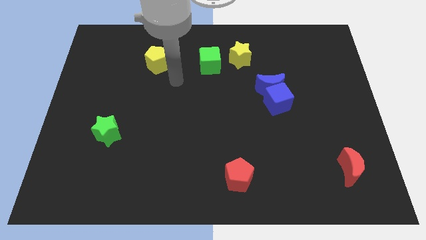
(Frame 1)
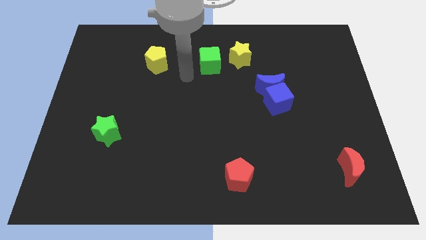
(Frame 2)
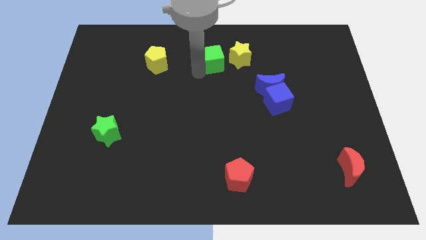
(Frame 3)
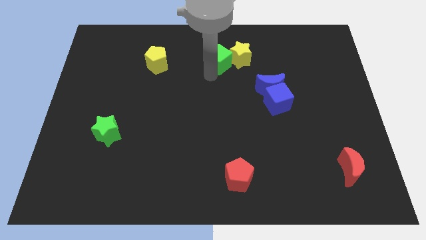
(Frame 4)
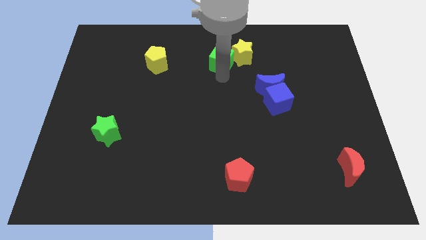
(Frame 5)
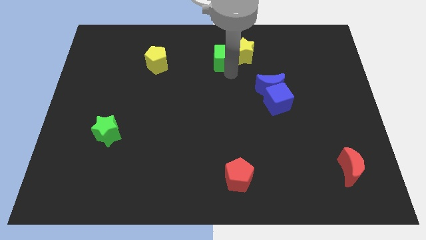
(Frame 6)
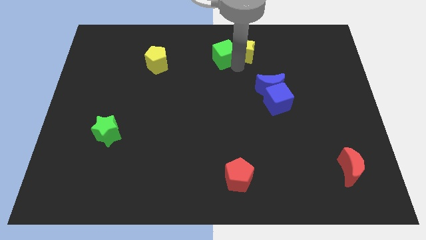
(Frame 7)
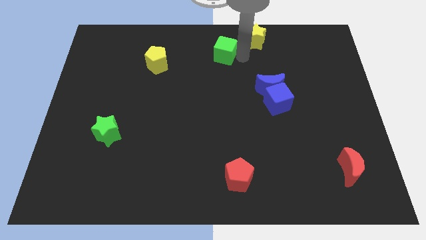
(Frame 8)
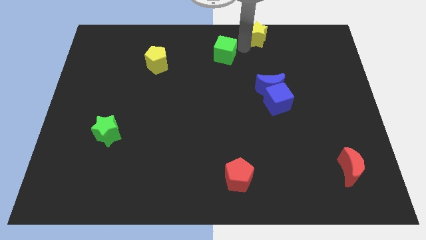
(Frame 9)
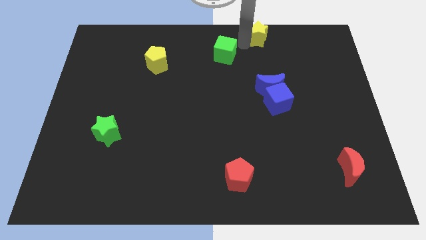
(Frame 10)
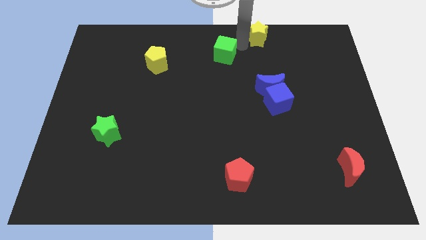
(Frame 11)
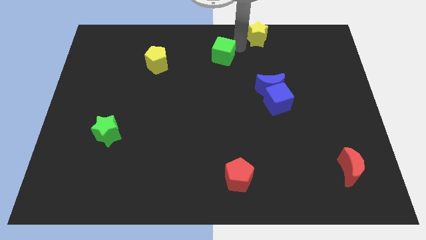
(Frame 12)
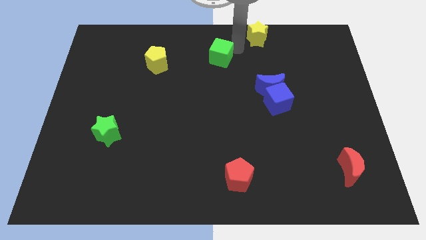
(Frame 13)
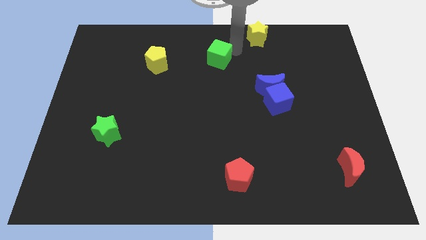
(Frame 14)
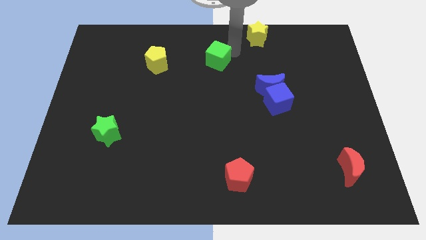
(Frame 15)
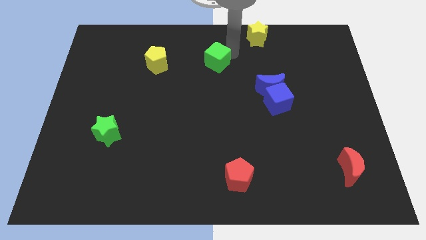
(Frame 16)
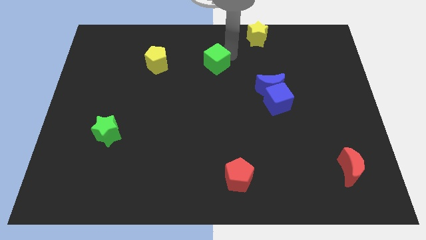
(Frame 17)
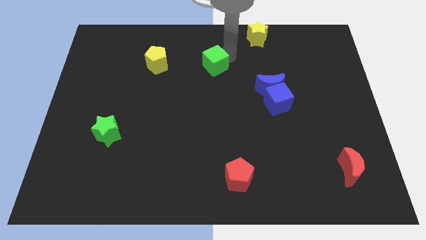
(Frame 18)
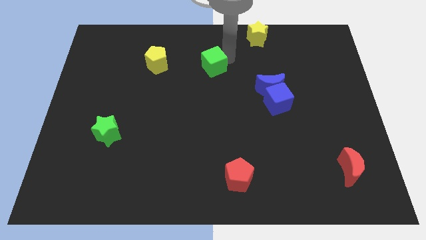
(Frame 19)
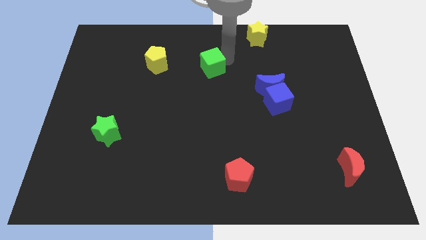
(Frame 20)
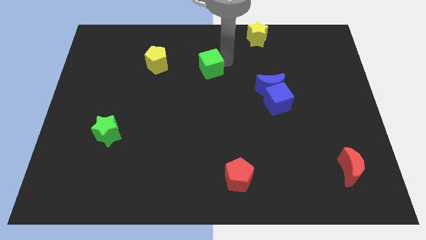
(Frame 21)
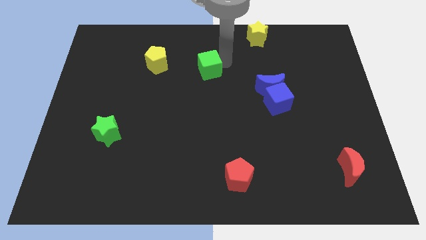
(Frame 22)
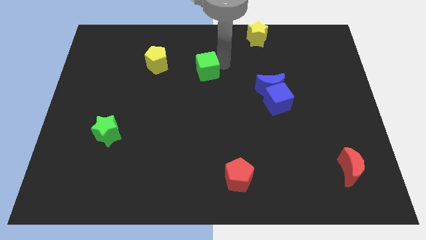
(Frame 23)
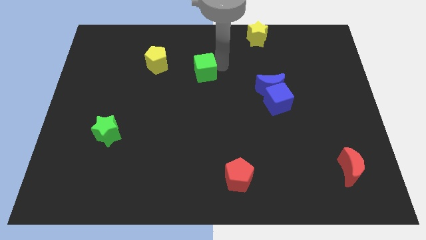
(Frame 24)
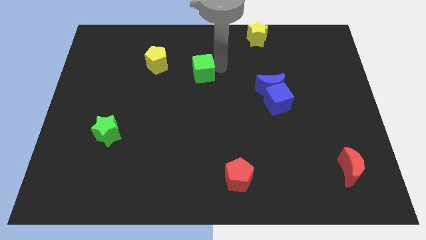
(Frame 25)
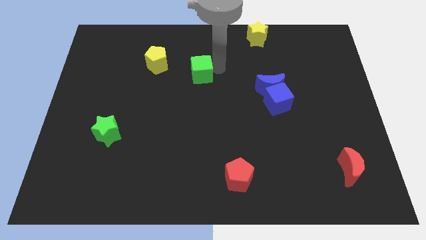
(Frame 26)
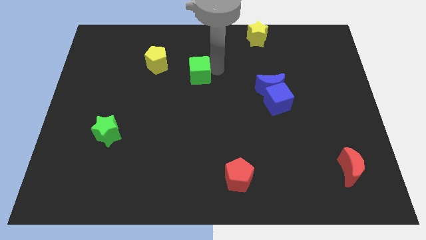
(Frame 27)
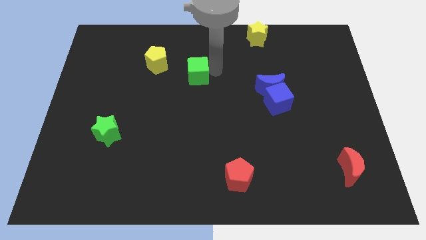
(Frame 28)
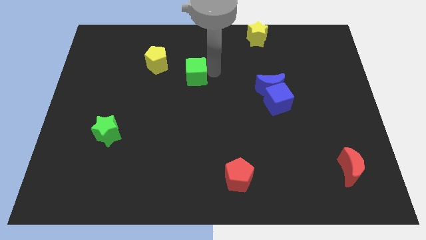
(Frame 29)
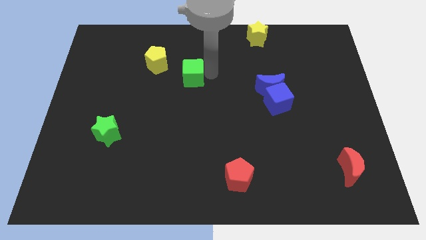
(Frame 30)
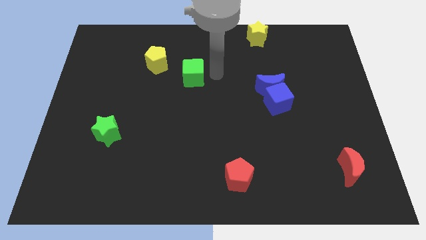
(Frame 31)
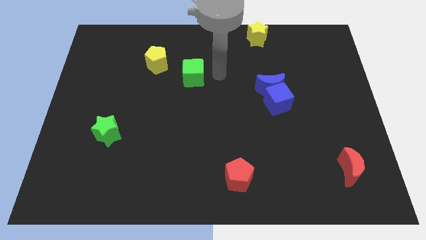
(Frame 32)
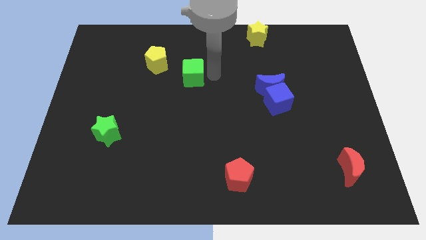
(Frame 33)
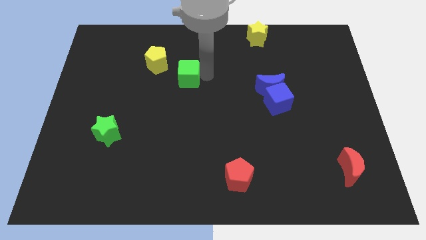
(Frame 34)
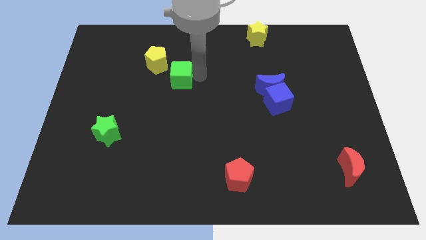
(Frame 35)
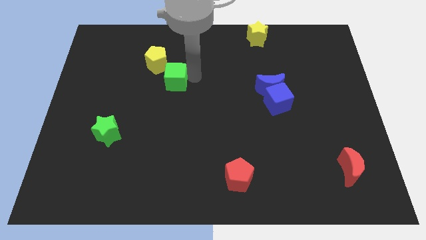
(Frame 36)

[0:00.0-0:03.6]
move the green cube to the left somewhat

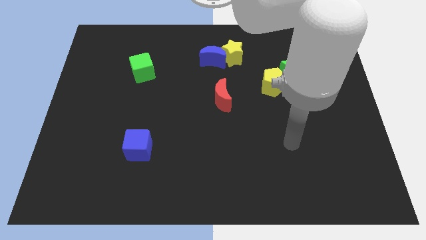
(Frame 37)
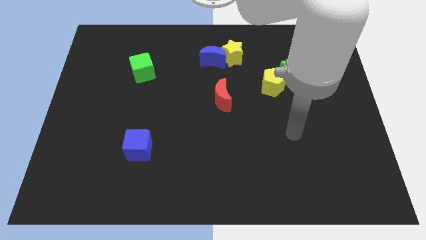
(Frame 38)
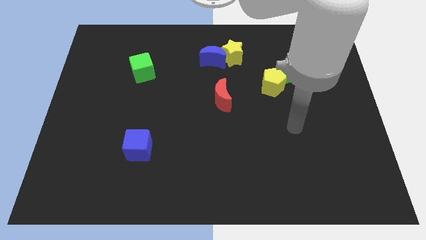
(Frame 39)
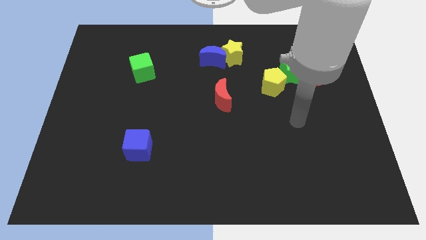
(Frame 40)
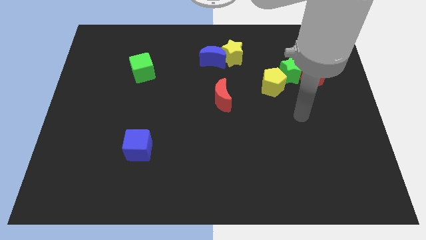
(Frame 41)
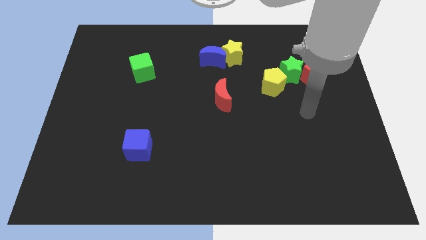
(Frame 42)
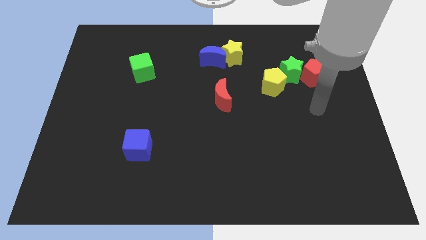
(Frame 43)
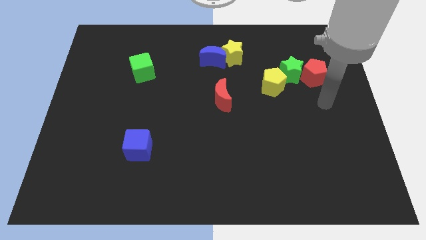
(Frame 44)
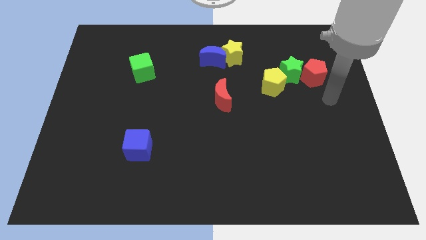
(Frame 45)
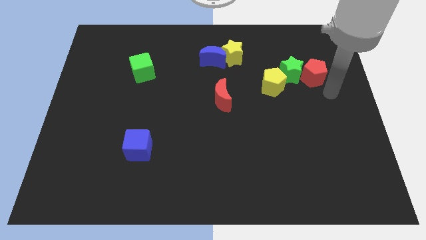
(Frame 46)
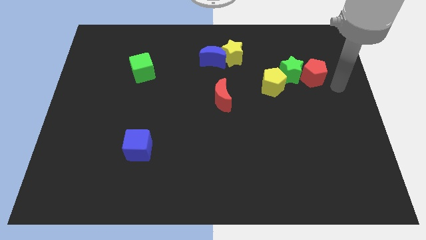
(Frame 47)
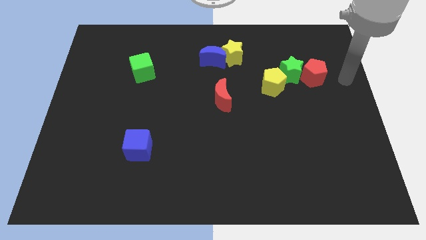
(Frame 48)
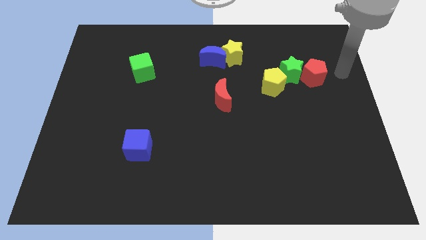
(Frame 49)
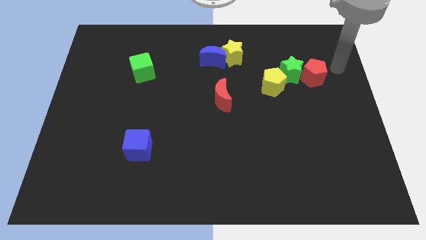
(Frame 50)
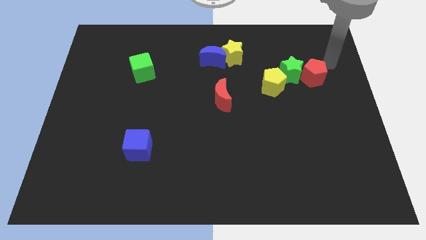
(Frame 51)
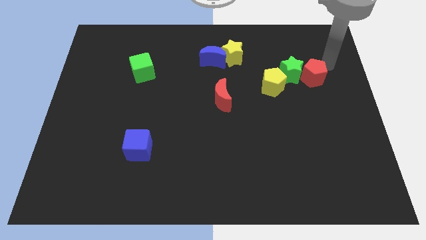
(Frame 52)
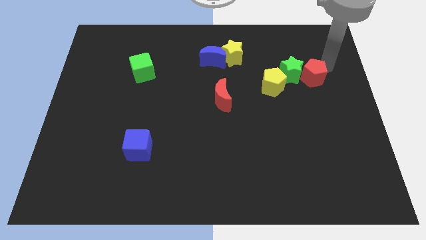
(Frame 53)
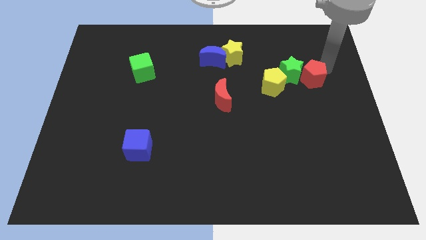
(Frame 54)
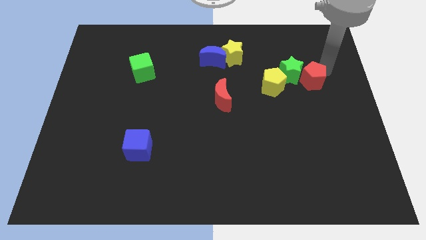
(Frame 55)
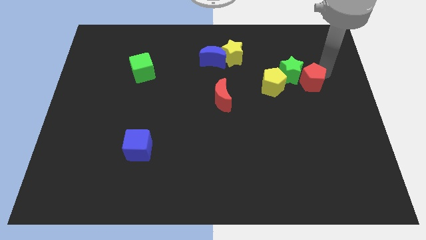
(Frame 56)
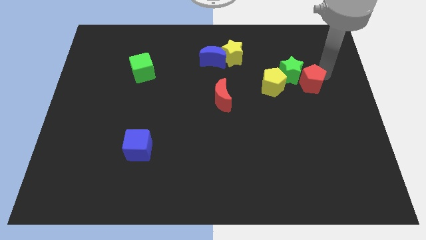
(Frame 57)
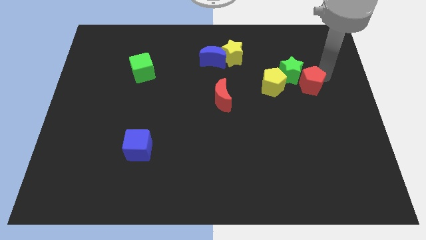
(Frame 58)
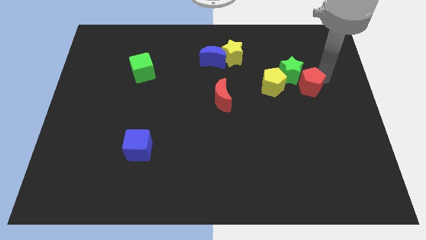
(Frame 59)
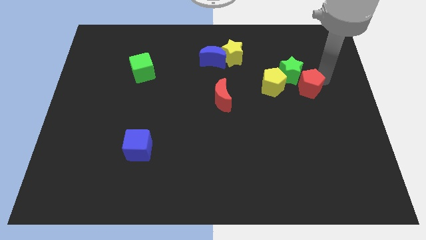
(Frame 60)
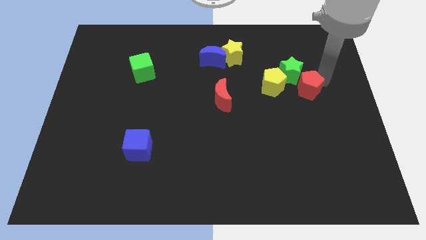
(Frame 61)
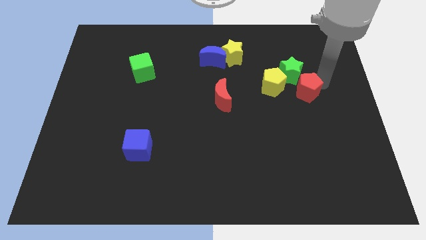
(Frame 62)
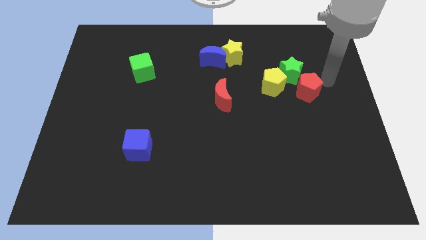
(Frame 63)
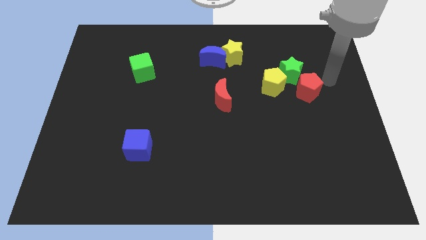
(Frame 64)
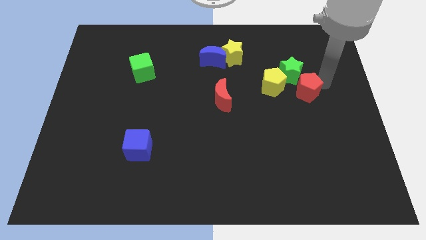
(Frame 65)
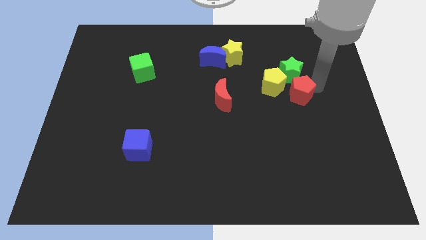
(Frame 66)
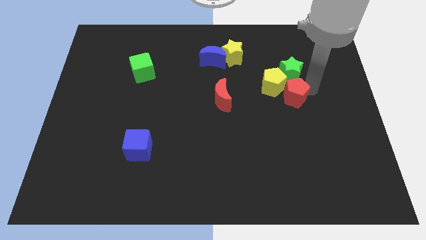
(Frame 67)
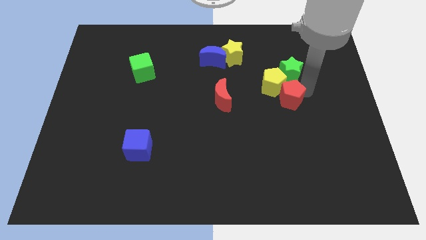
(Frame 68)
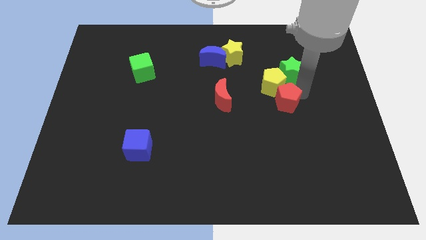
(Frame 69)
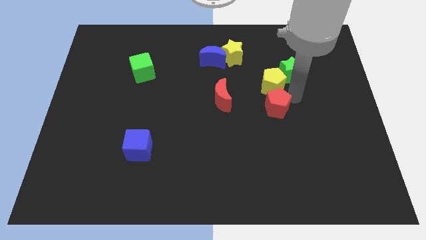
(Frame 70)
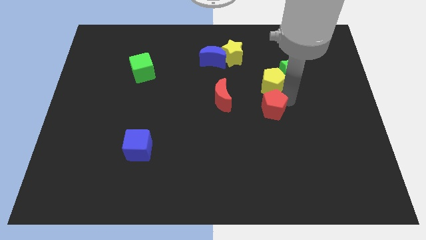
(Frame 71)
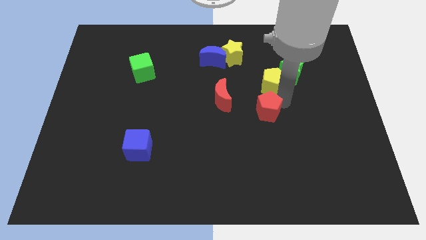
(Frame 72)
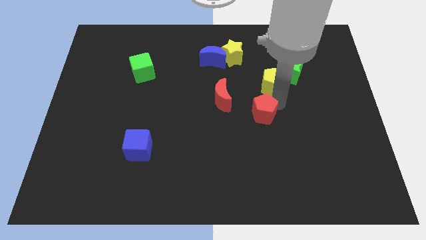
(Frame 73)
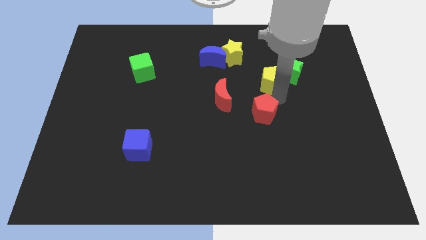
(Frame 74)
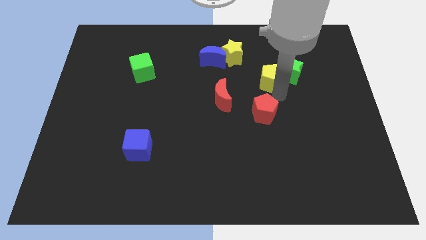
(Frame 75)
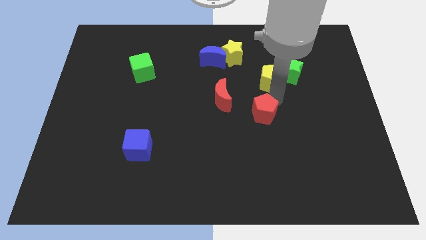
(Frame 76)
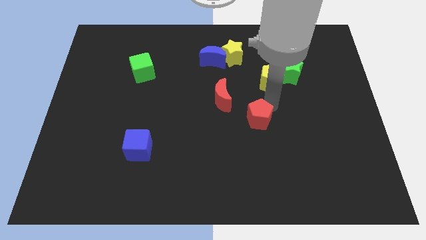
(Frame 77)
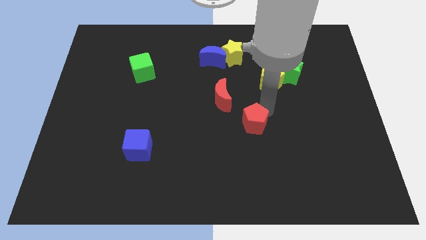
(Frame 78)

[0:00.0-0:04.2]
move the red pentagon downwards and to the left
